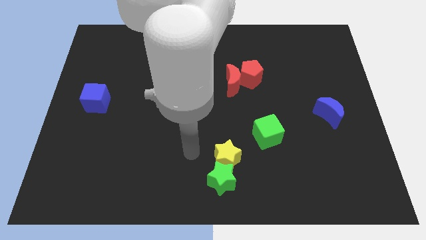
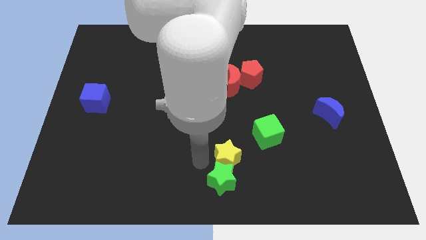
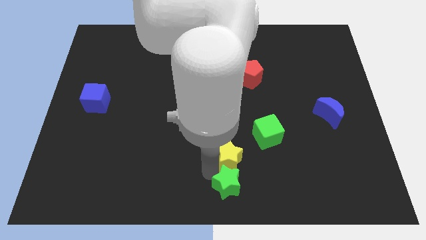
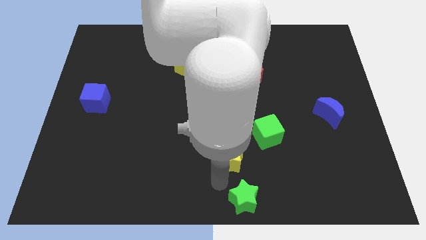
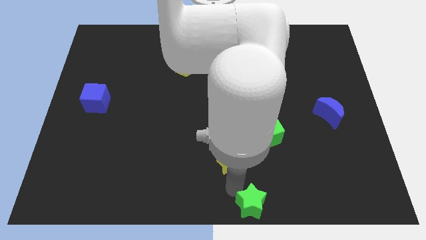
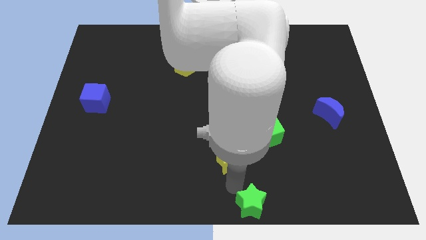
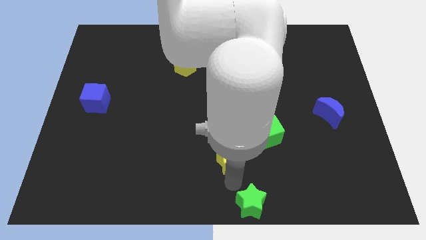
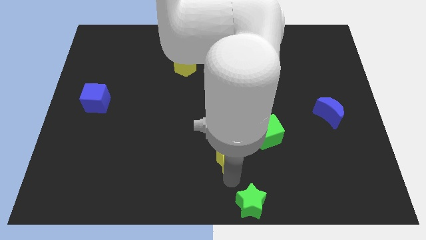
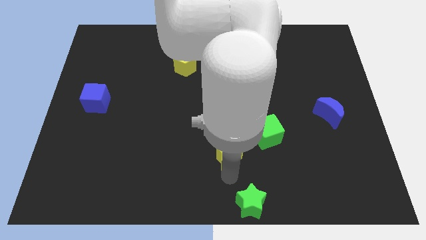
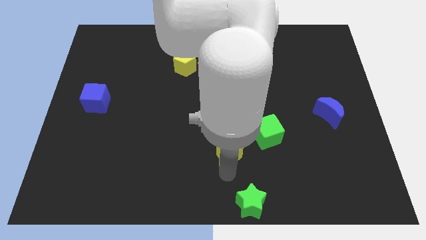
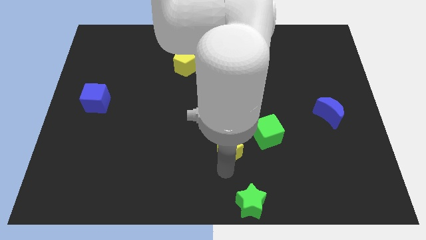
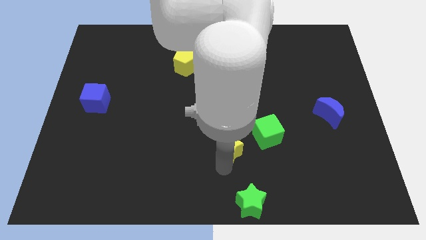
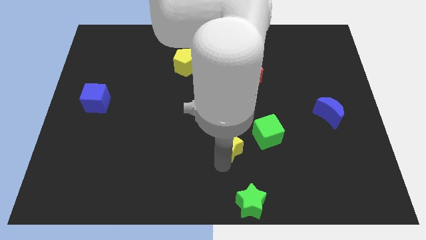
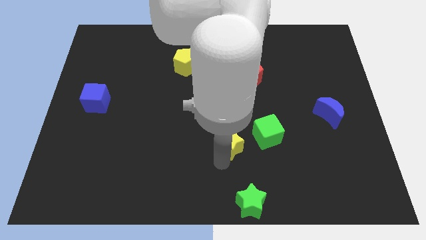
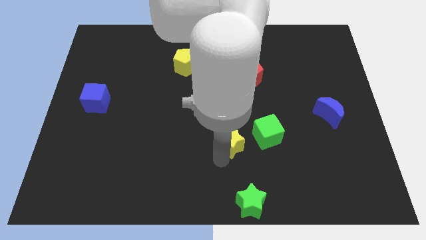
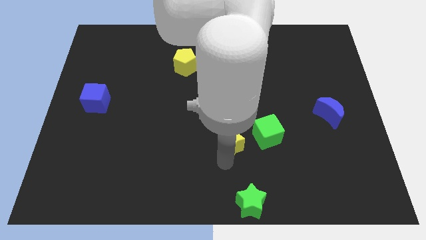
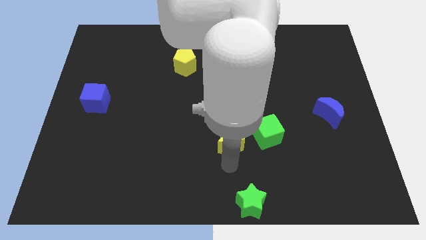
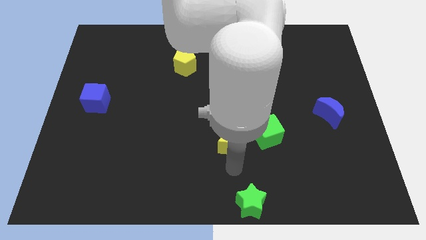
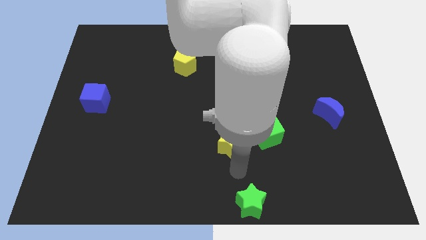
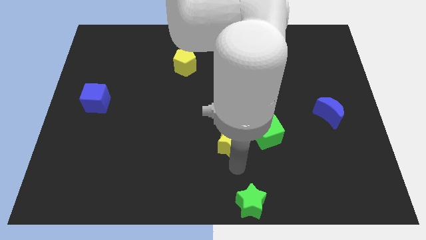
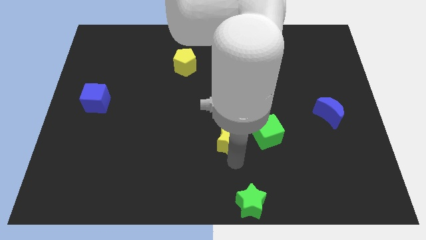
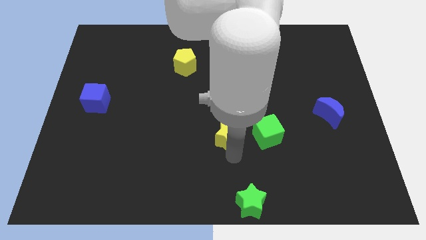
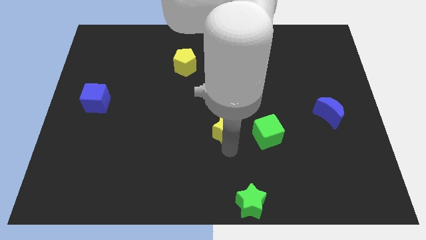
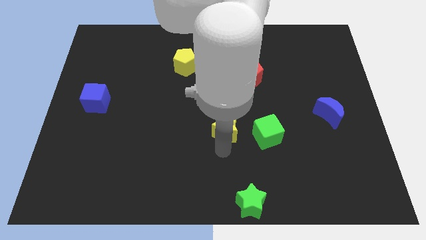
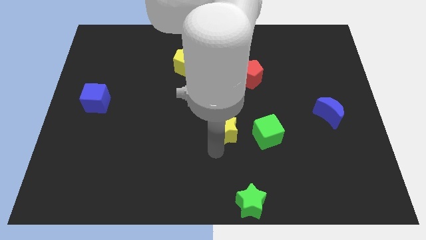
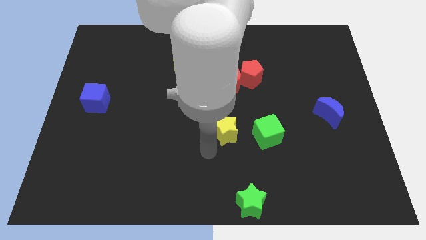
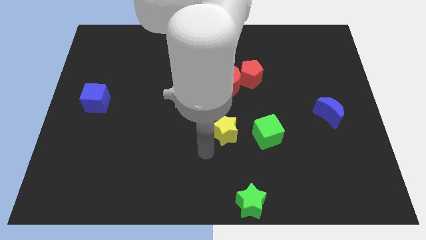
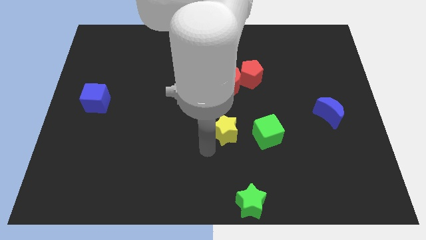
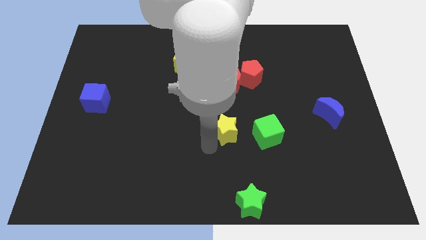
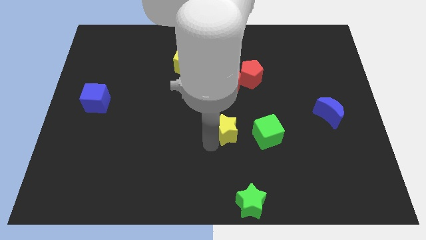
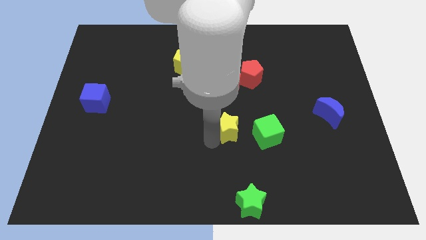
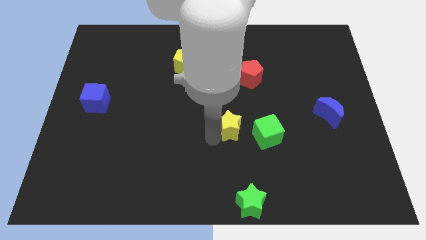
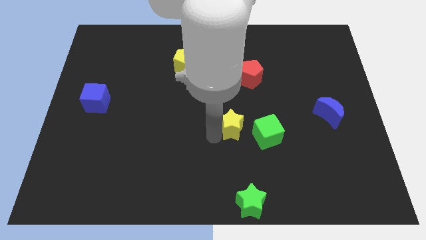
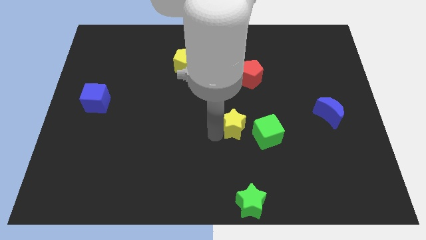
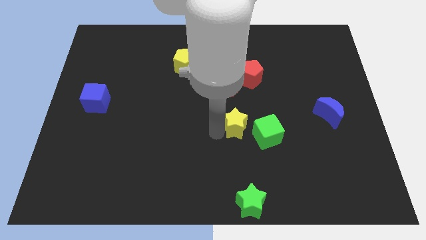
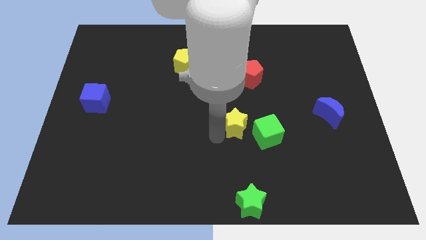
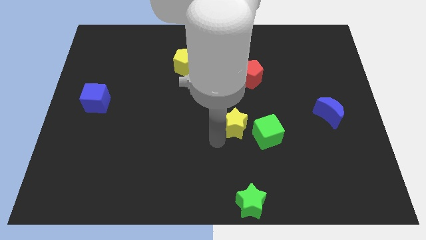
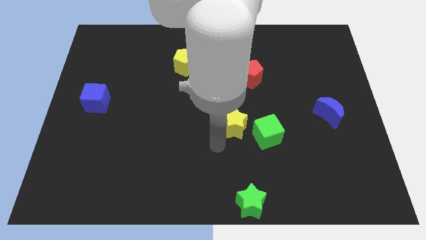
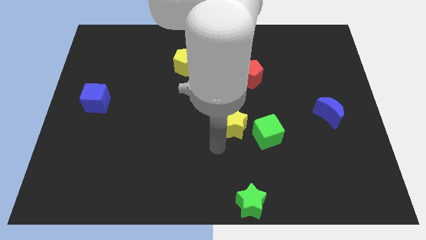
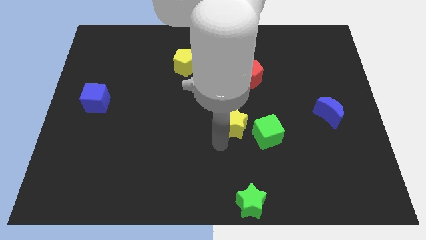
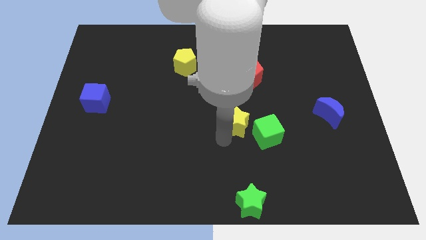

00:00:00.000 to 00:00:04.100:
push the yellow star a little up and then right

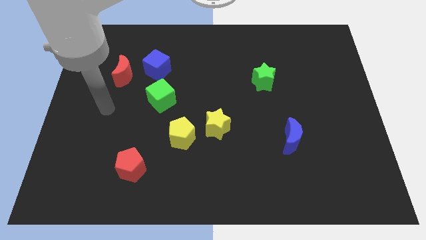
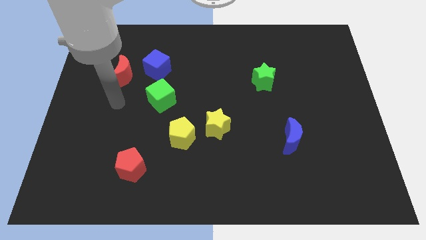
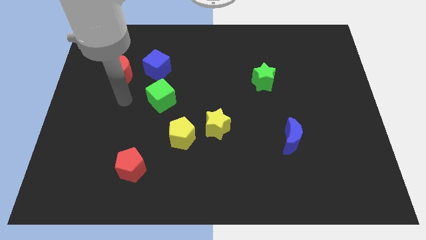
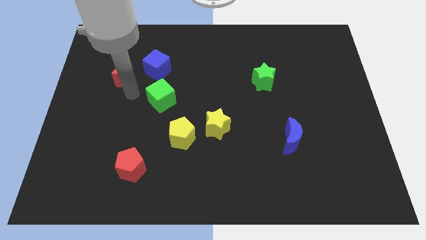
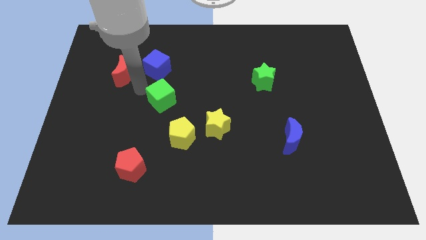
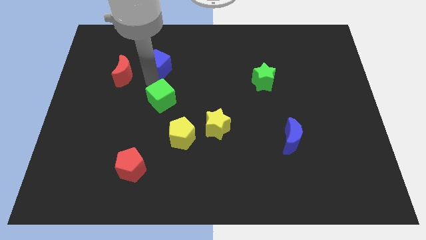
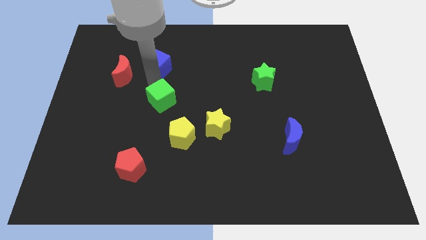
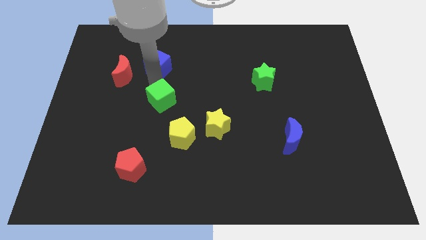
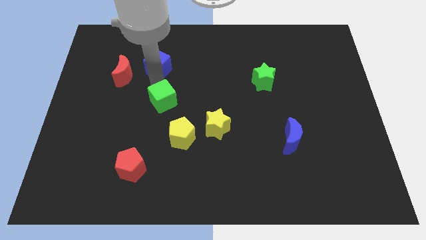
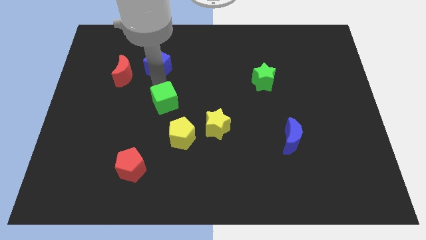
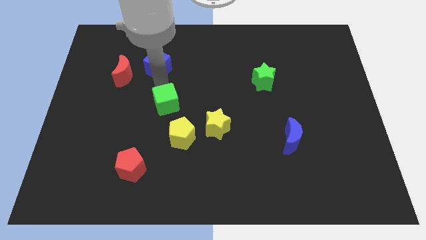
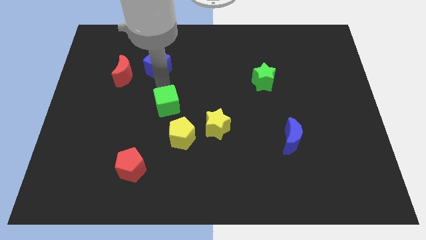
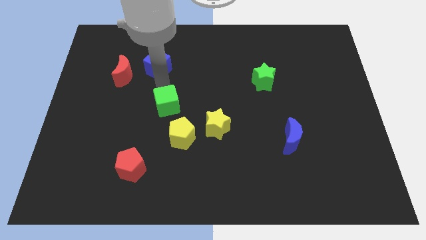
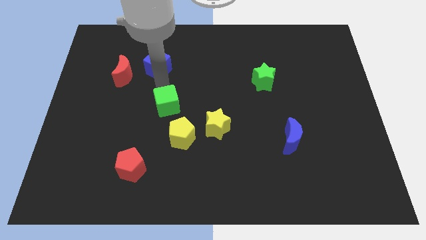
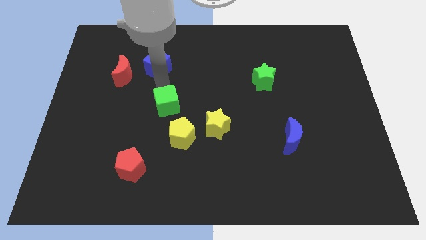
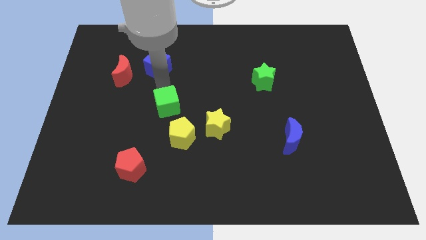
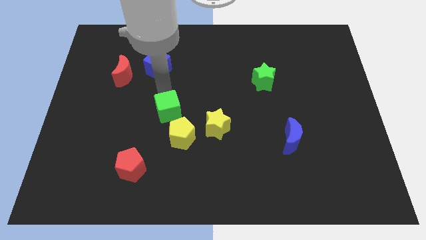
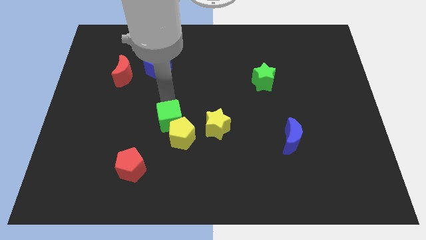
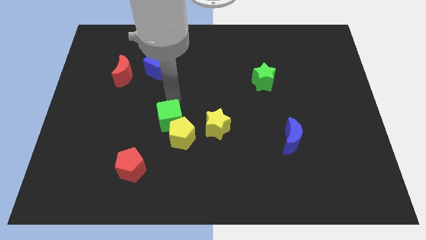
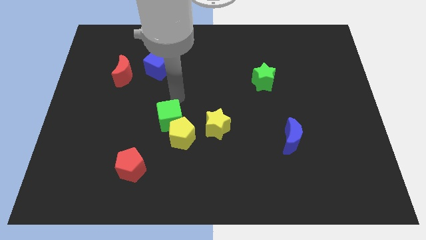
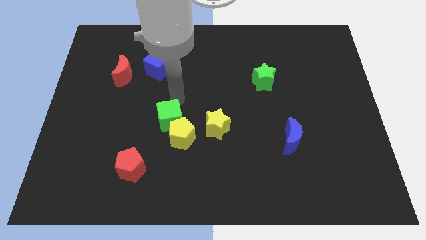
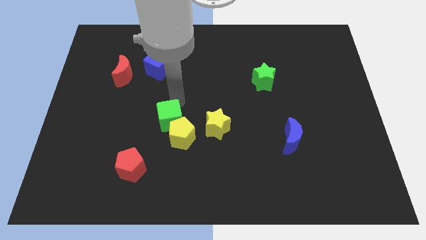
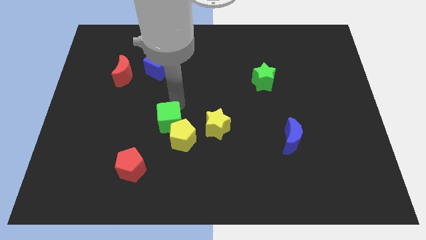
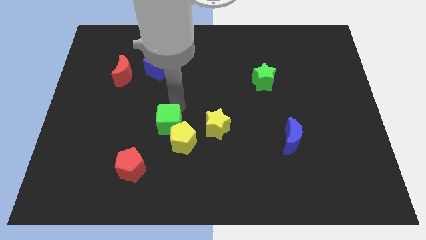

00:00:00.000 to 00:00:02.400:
push the green cube downwards a little bit

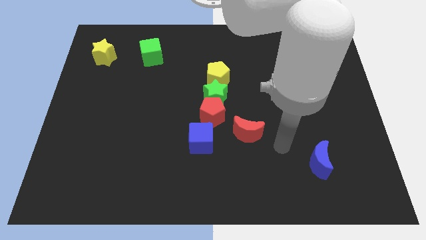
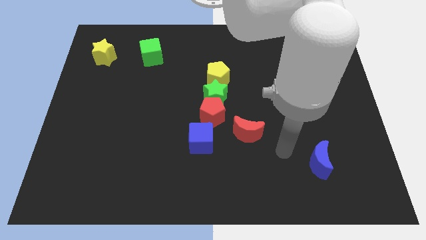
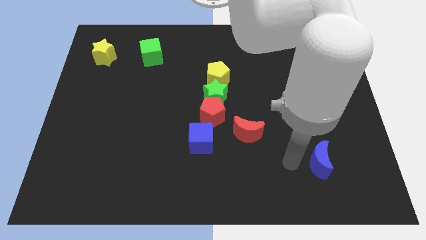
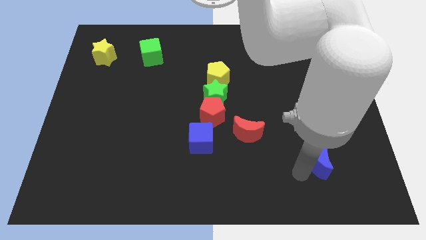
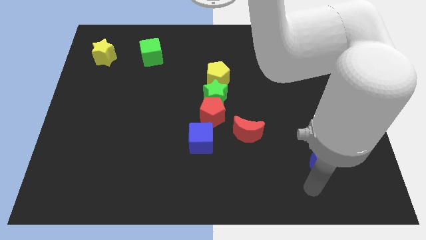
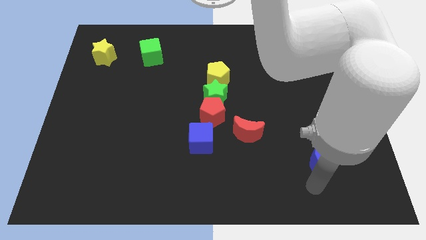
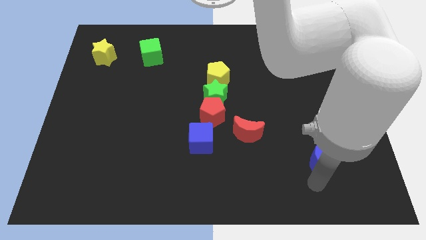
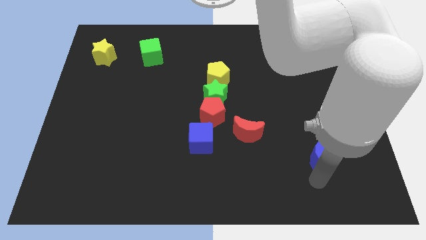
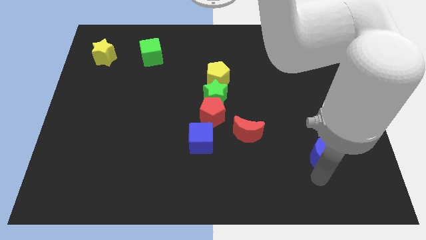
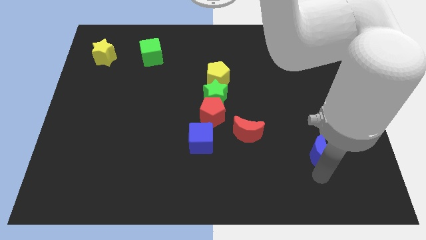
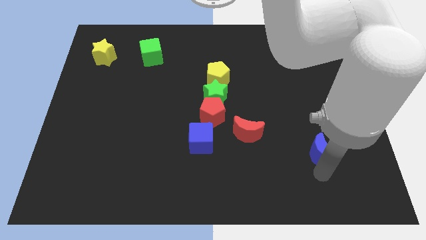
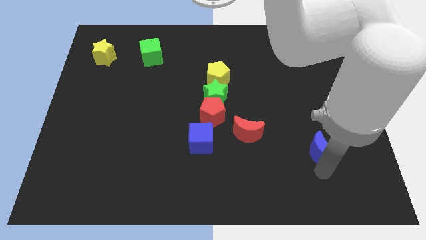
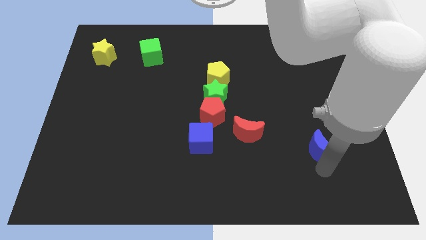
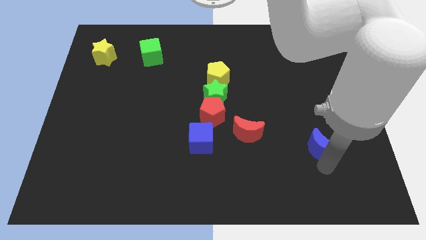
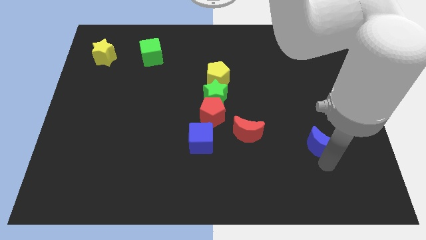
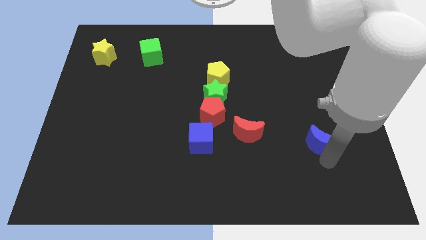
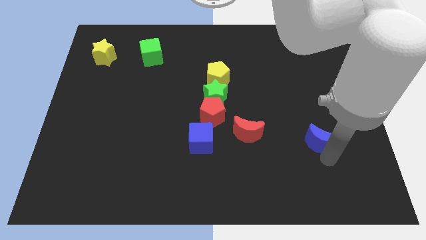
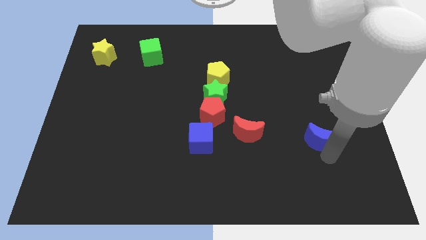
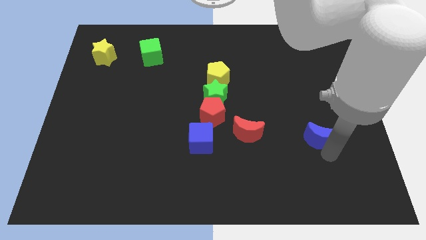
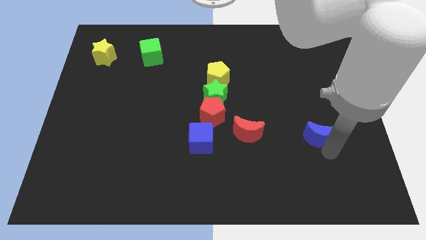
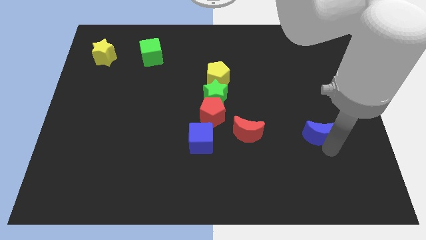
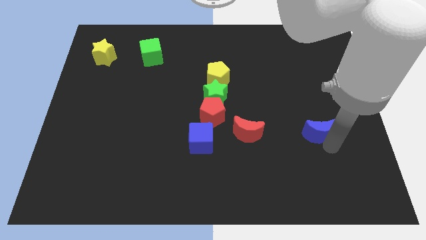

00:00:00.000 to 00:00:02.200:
slightly move the blue moon upwards
